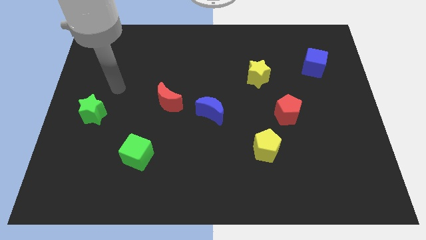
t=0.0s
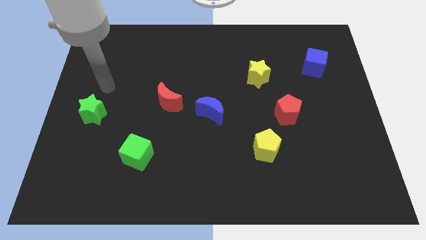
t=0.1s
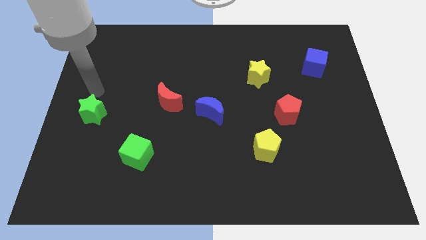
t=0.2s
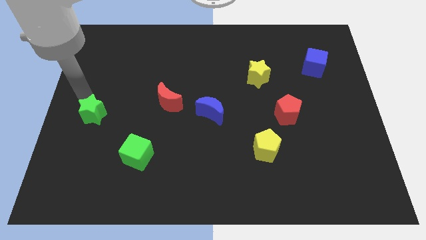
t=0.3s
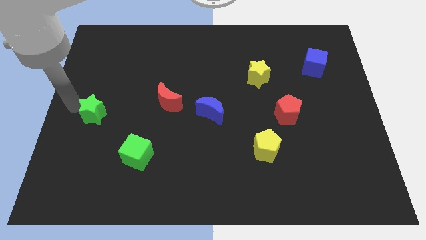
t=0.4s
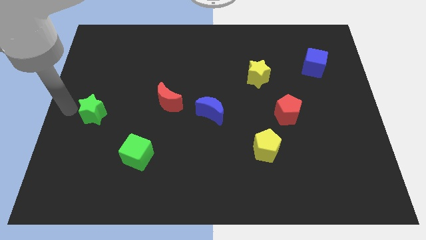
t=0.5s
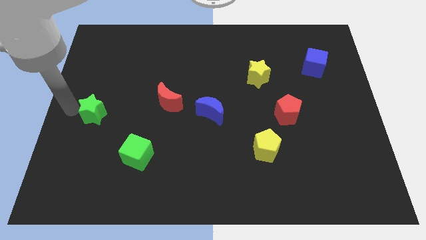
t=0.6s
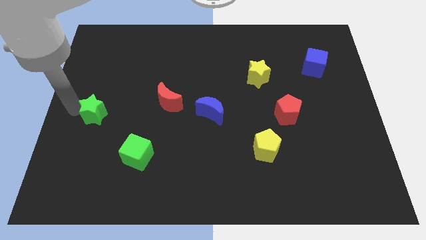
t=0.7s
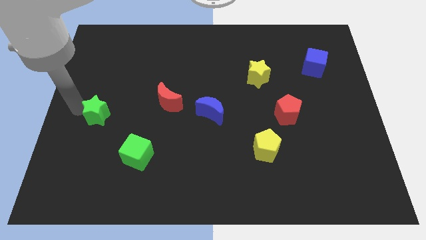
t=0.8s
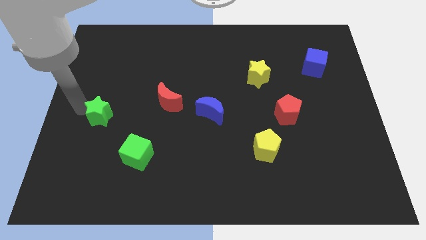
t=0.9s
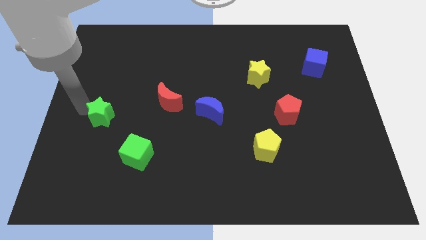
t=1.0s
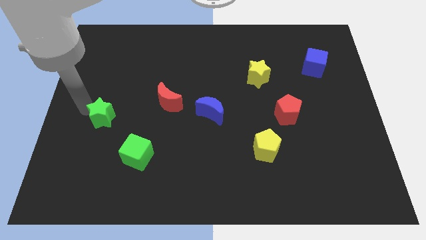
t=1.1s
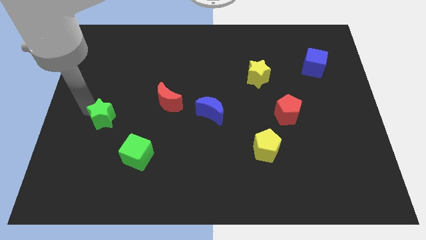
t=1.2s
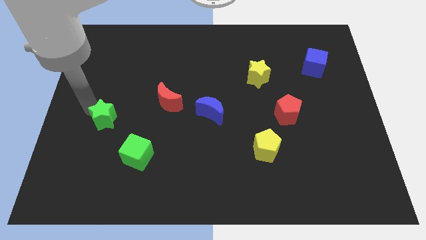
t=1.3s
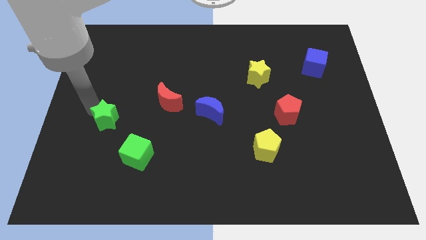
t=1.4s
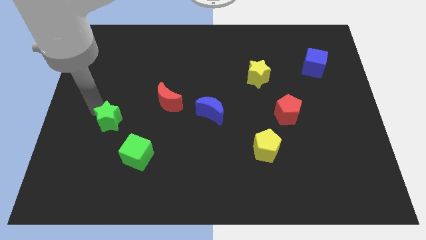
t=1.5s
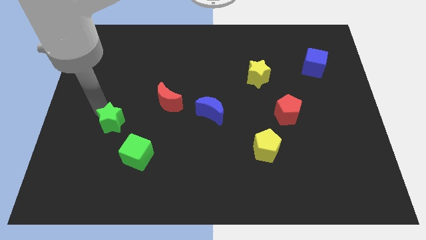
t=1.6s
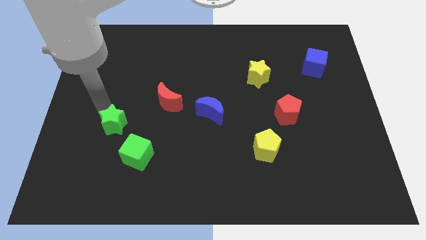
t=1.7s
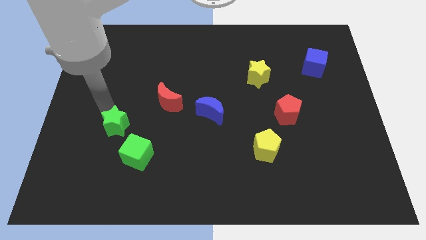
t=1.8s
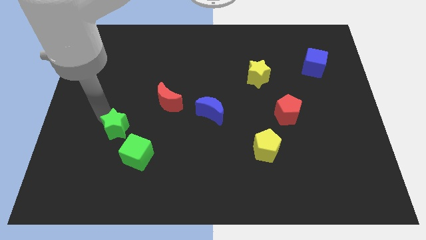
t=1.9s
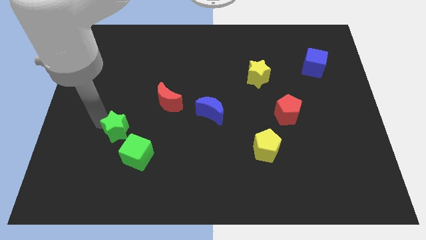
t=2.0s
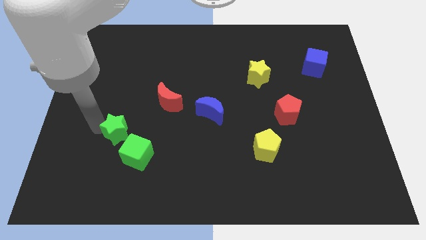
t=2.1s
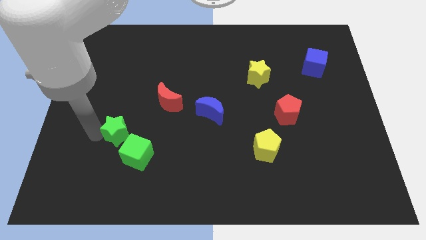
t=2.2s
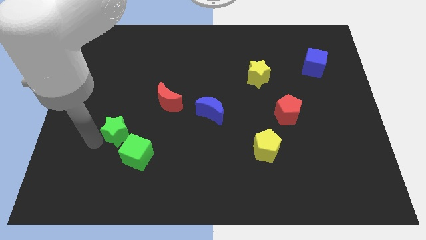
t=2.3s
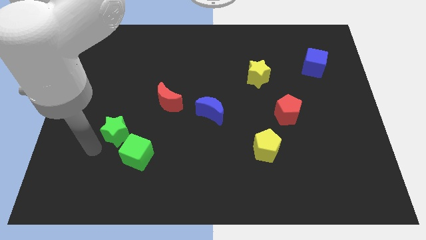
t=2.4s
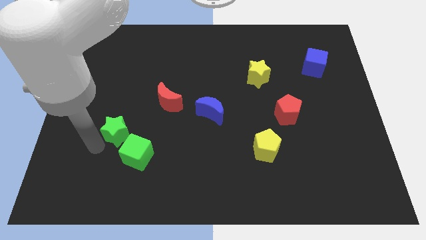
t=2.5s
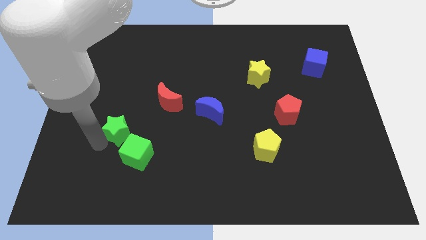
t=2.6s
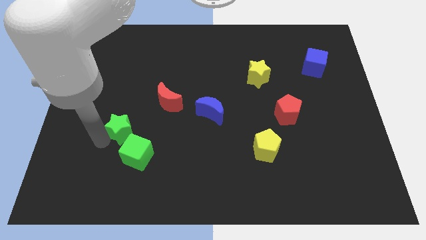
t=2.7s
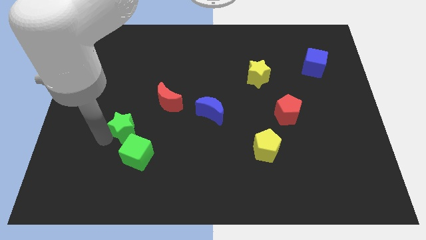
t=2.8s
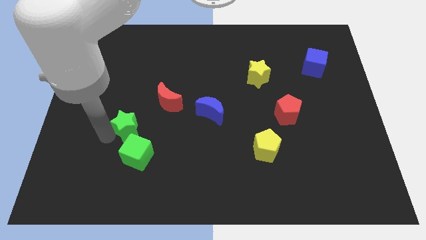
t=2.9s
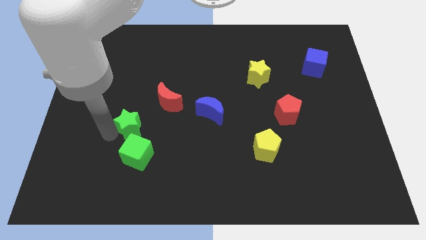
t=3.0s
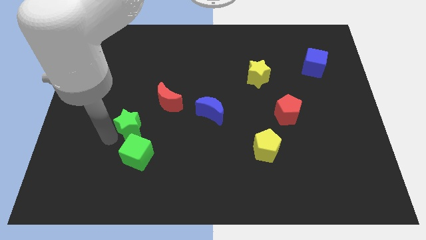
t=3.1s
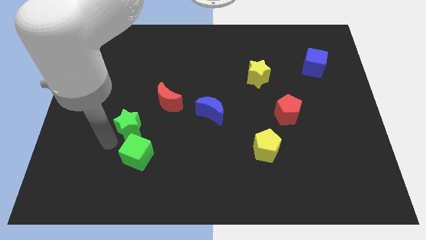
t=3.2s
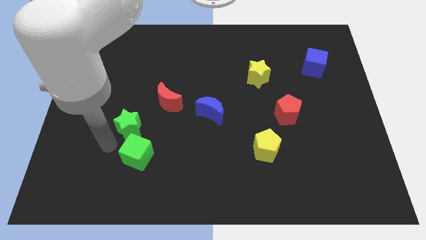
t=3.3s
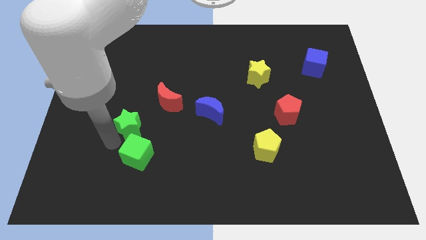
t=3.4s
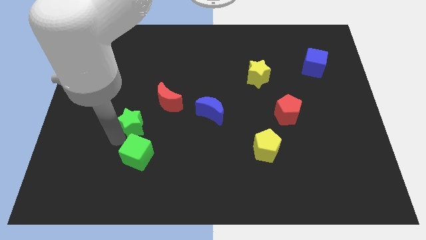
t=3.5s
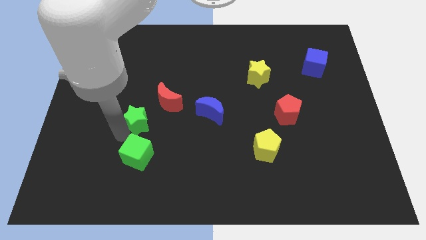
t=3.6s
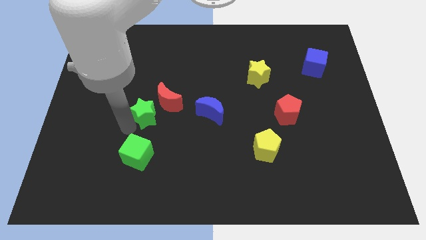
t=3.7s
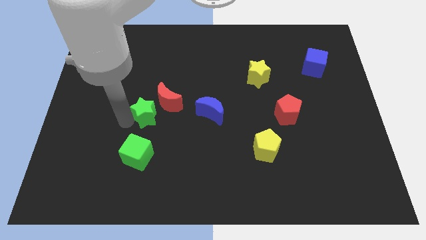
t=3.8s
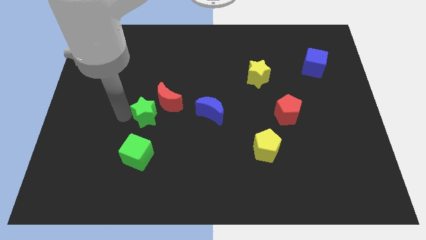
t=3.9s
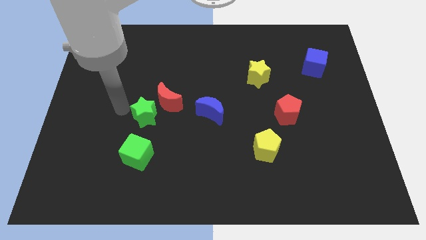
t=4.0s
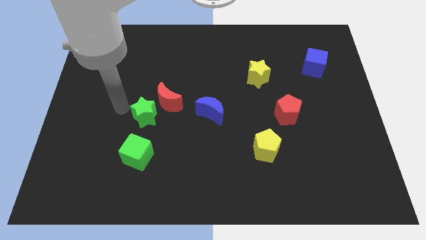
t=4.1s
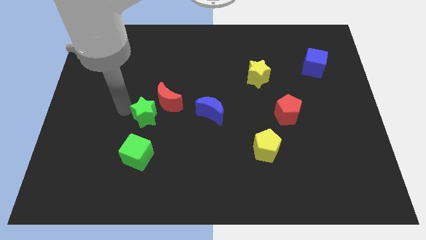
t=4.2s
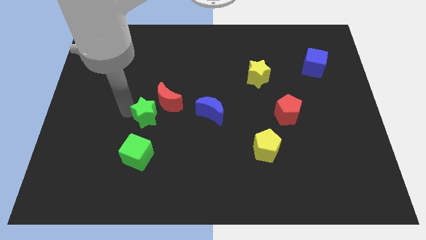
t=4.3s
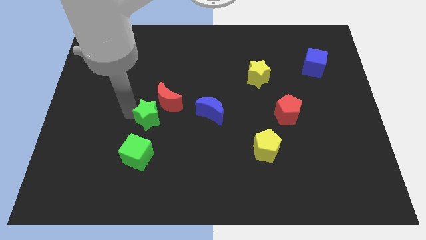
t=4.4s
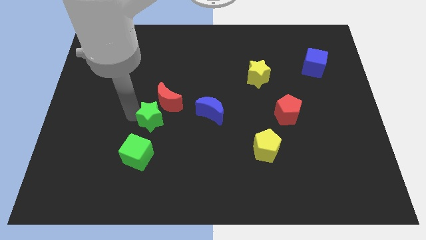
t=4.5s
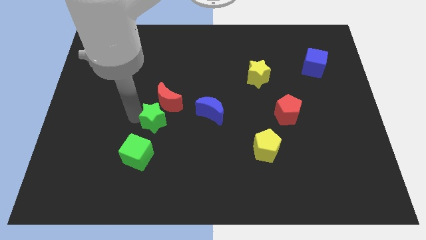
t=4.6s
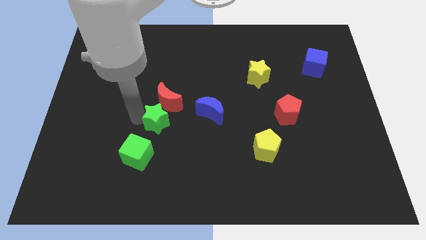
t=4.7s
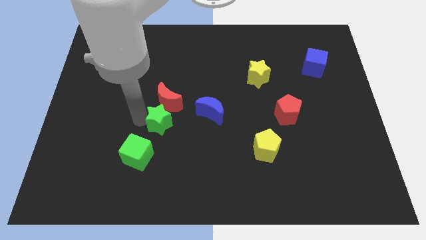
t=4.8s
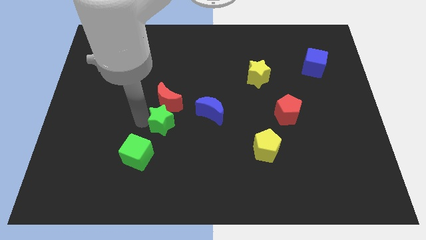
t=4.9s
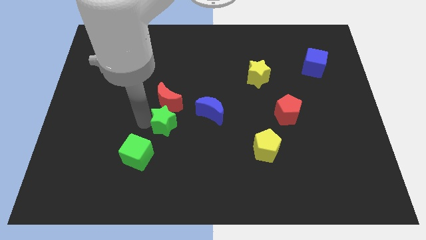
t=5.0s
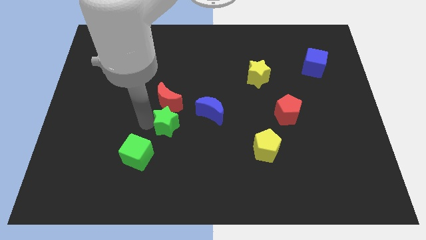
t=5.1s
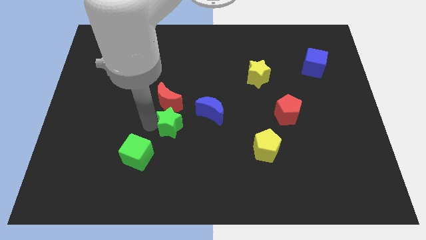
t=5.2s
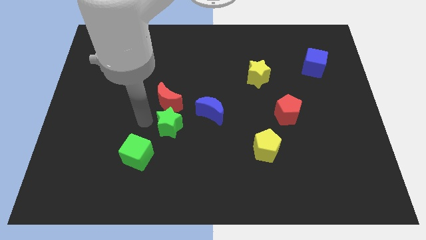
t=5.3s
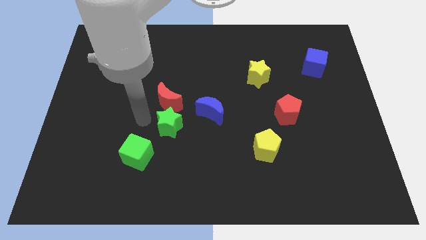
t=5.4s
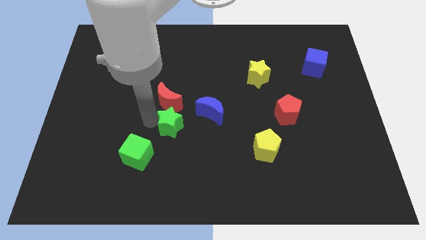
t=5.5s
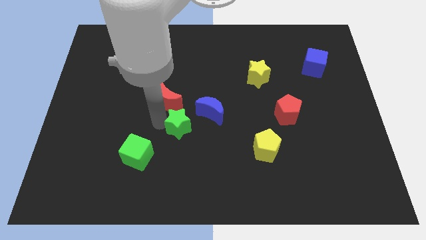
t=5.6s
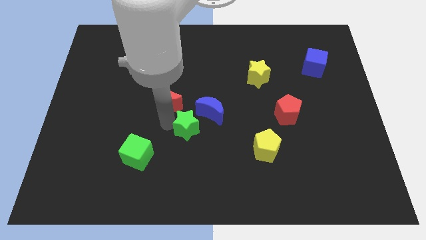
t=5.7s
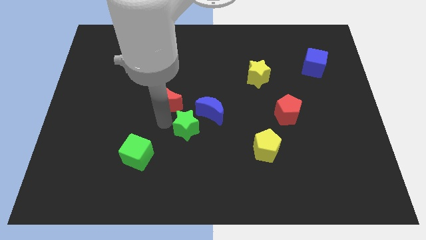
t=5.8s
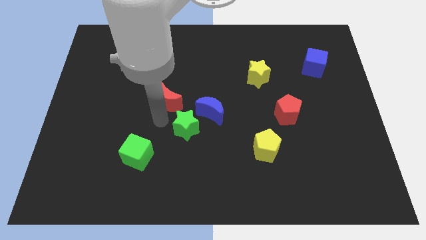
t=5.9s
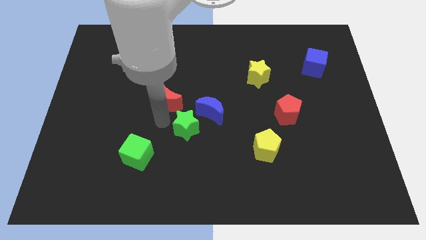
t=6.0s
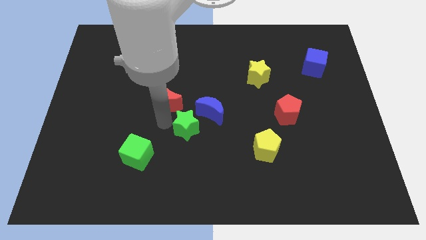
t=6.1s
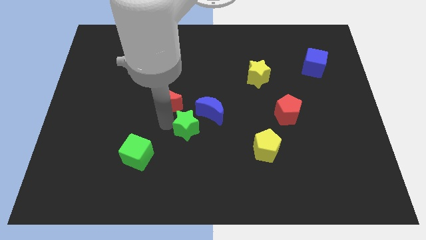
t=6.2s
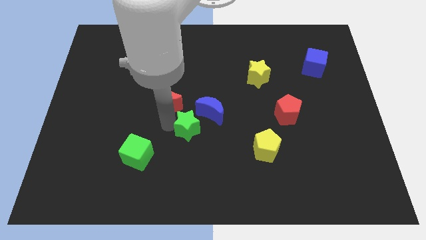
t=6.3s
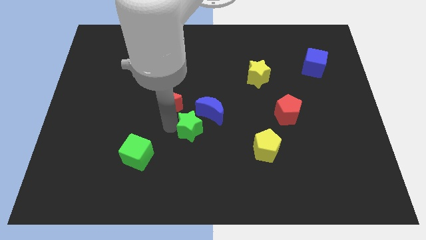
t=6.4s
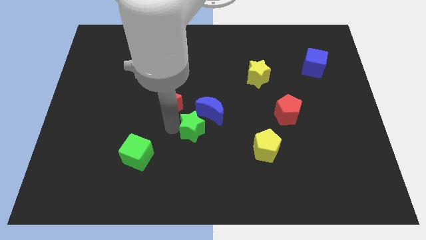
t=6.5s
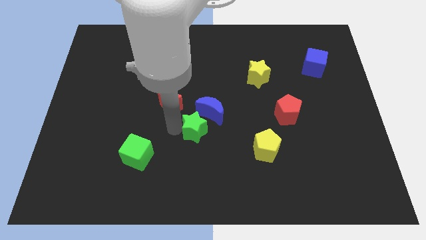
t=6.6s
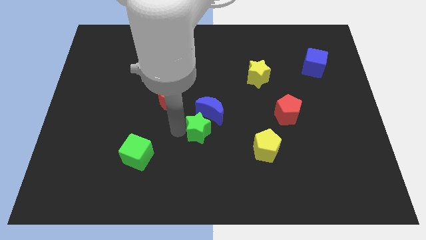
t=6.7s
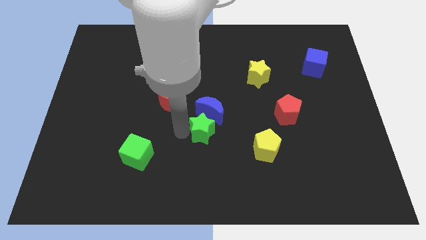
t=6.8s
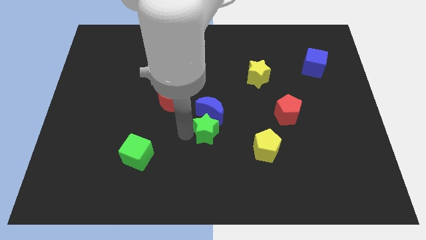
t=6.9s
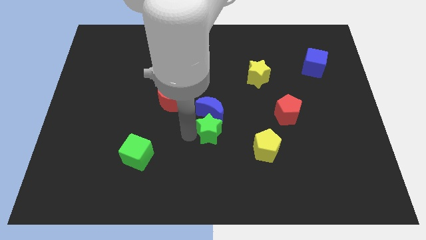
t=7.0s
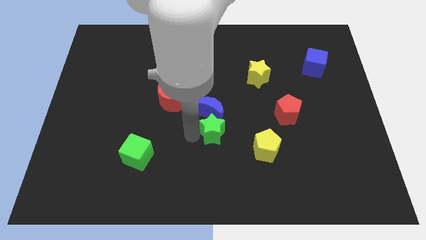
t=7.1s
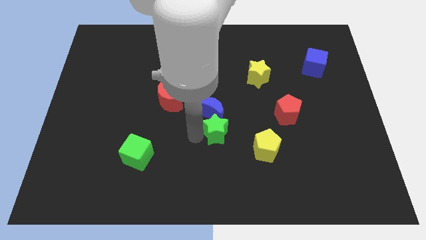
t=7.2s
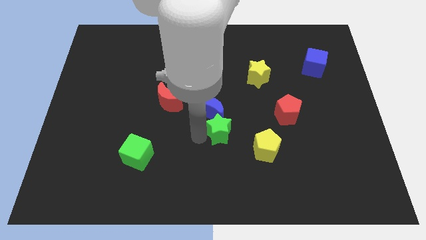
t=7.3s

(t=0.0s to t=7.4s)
push the green star to the top left side of the yellow pentagon

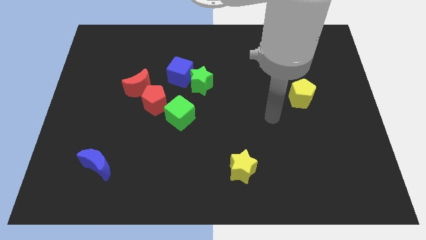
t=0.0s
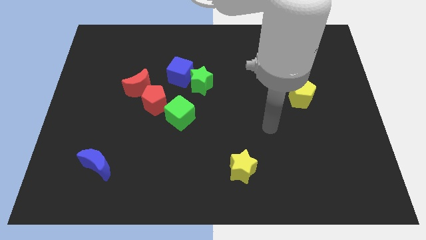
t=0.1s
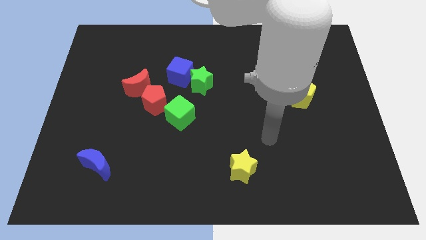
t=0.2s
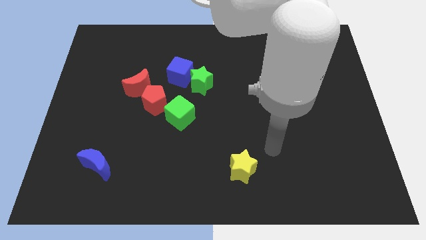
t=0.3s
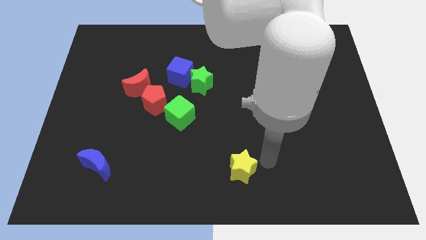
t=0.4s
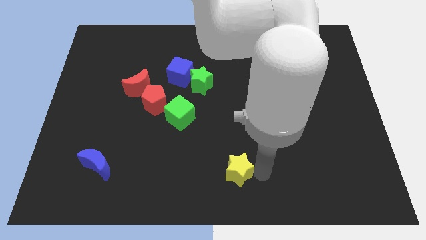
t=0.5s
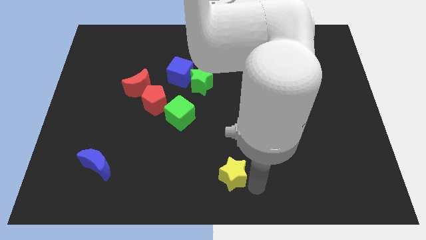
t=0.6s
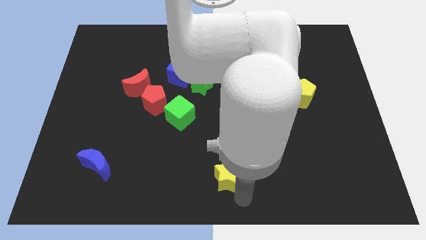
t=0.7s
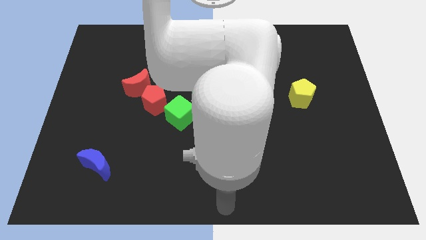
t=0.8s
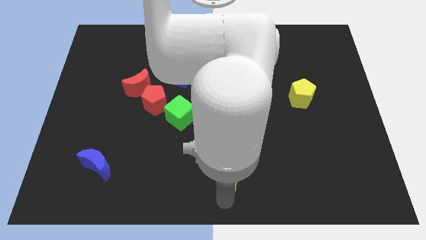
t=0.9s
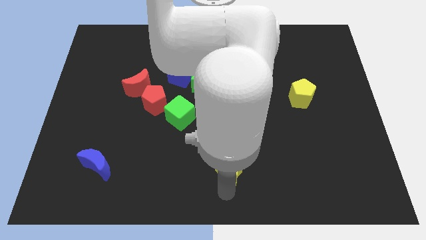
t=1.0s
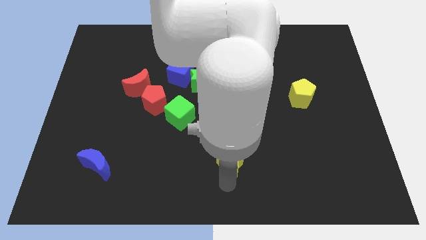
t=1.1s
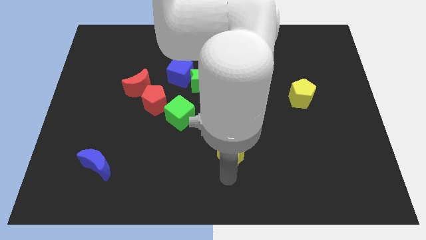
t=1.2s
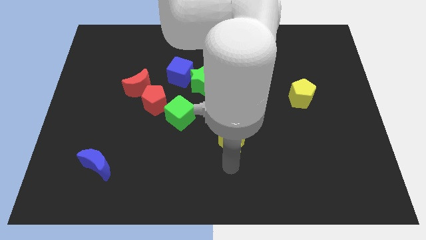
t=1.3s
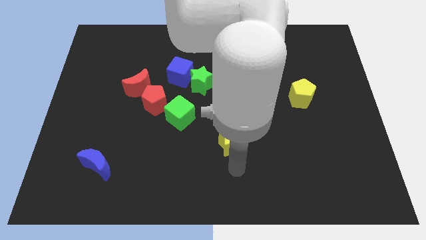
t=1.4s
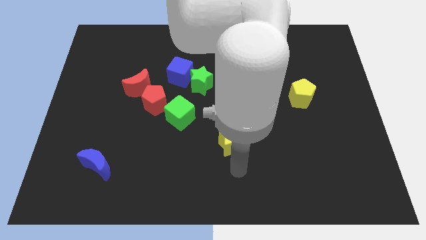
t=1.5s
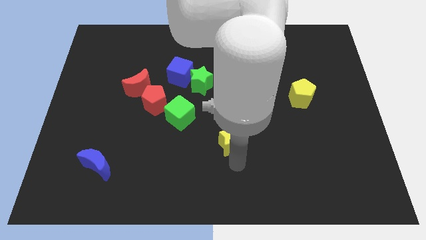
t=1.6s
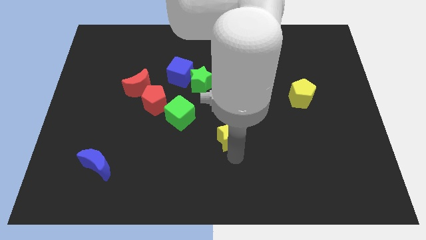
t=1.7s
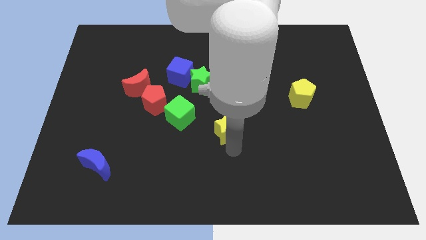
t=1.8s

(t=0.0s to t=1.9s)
move the yellow star right of the green cube
